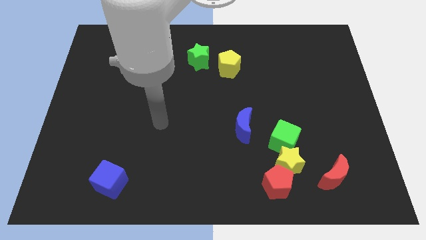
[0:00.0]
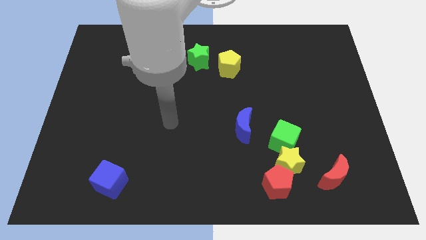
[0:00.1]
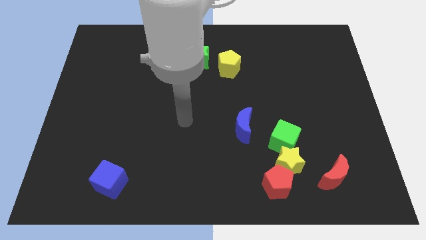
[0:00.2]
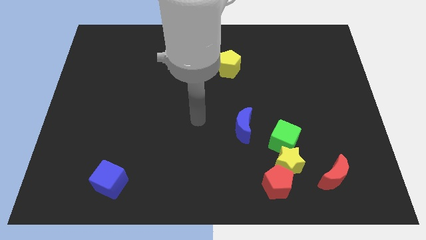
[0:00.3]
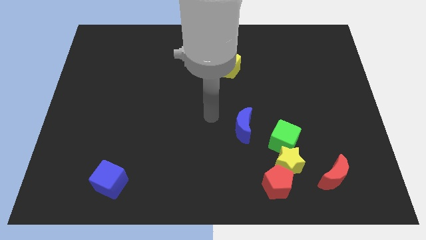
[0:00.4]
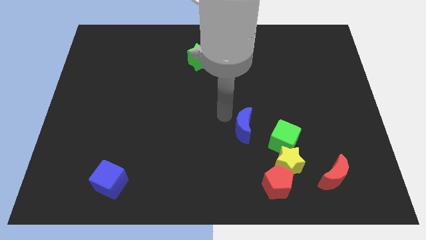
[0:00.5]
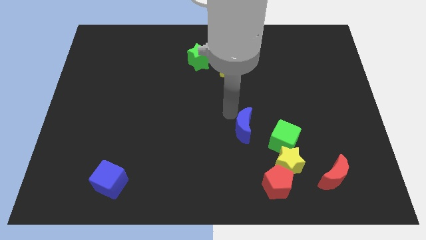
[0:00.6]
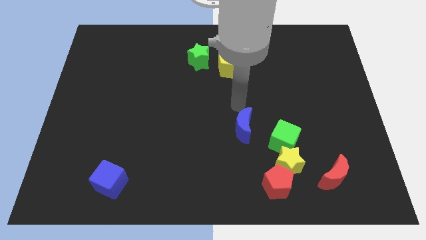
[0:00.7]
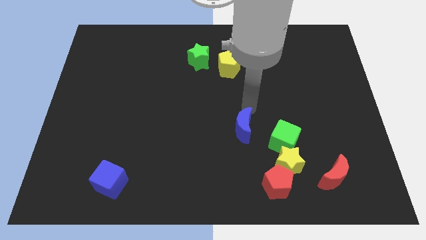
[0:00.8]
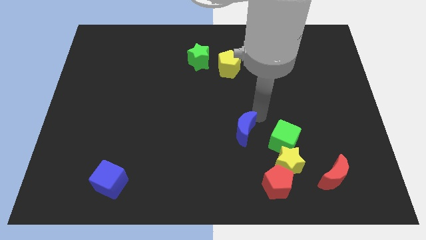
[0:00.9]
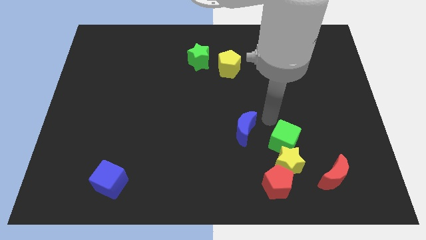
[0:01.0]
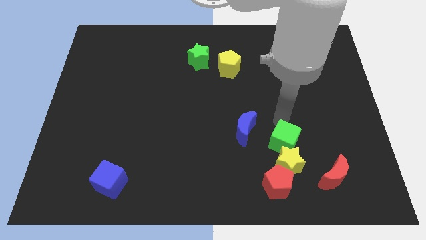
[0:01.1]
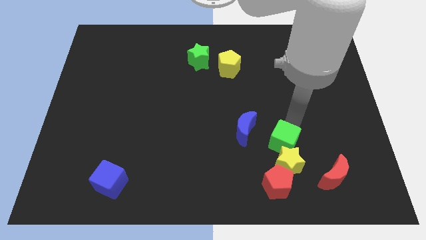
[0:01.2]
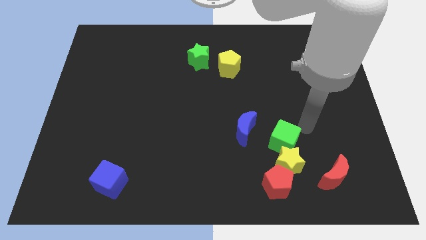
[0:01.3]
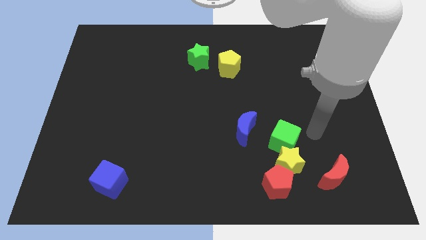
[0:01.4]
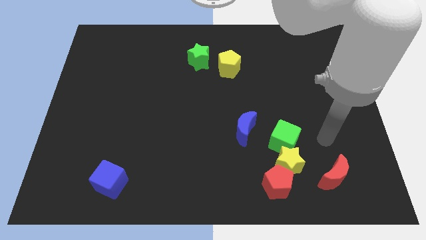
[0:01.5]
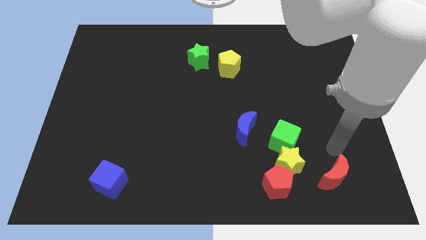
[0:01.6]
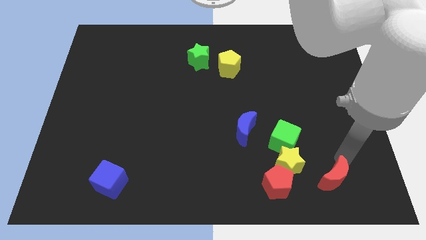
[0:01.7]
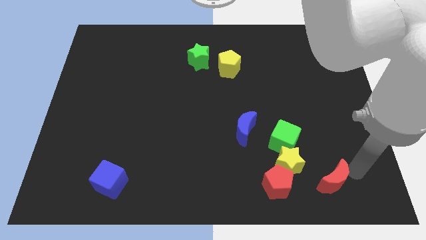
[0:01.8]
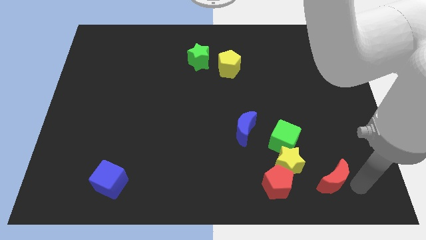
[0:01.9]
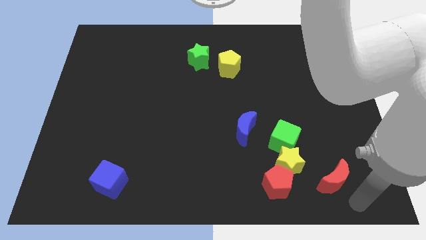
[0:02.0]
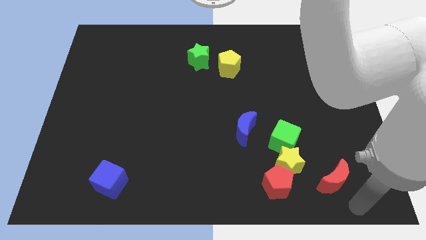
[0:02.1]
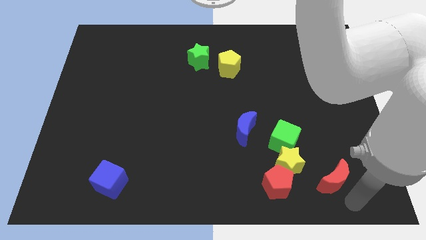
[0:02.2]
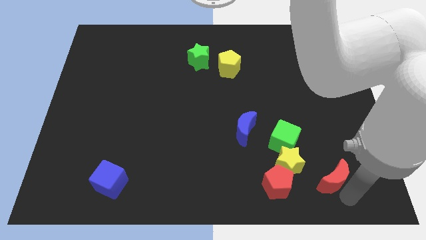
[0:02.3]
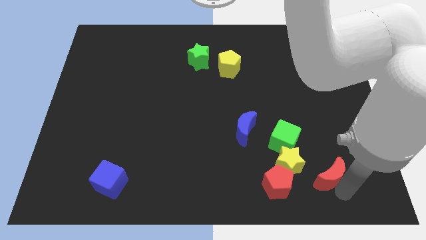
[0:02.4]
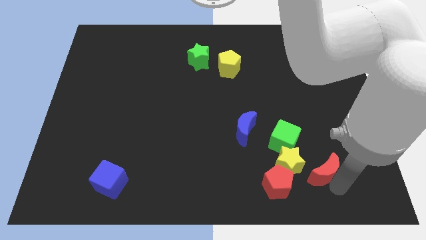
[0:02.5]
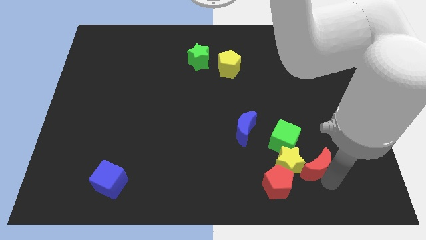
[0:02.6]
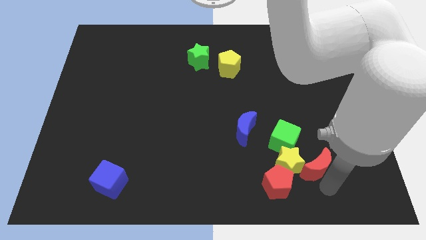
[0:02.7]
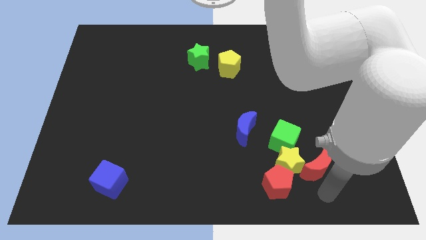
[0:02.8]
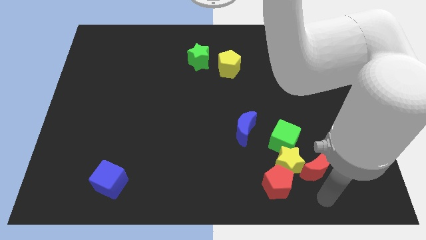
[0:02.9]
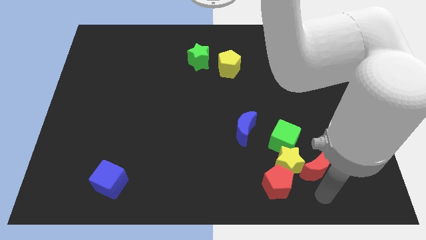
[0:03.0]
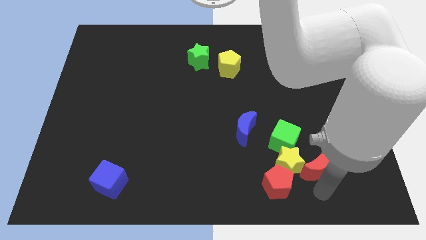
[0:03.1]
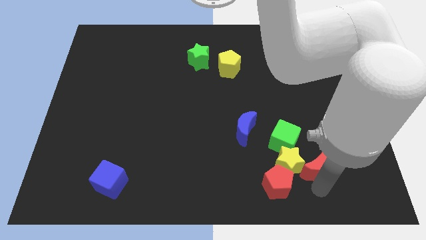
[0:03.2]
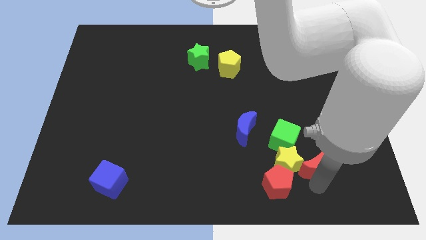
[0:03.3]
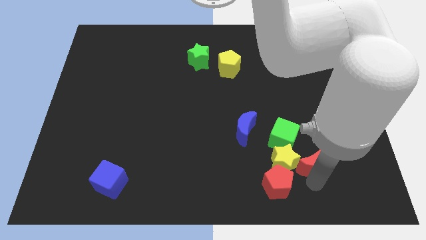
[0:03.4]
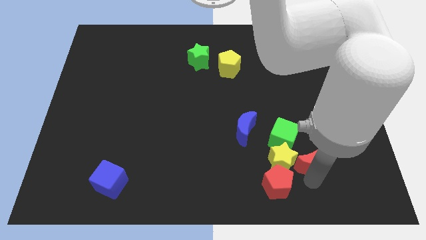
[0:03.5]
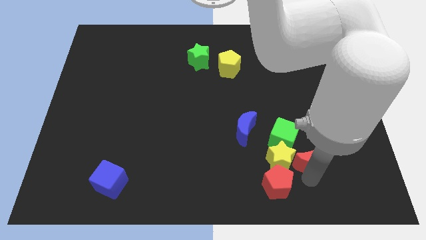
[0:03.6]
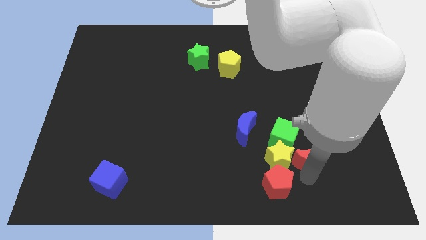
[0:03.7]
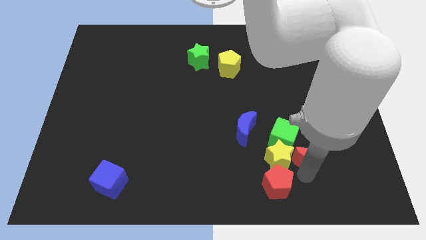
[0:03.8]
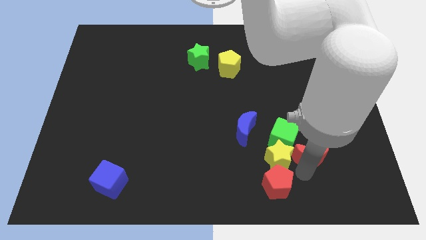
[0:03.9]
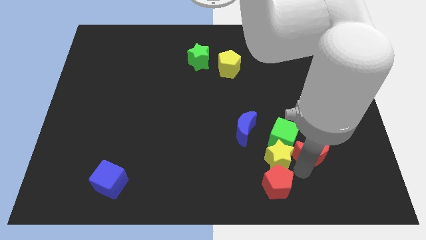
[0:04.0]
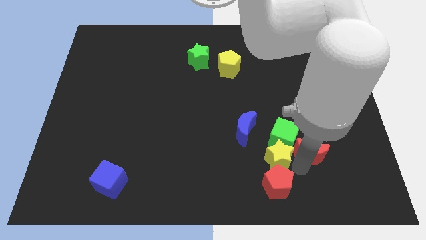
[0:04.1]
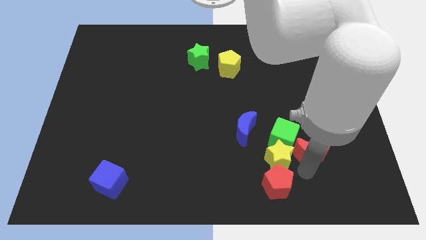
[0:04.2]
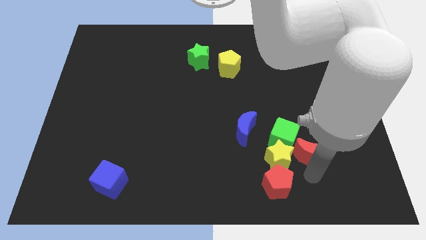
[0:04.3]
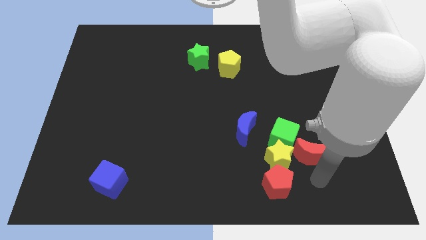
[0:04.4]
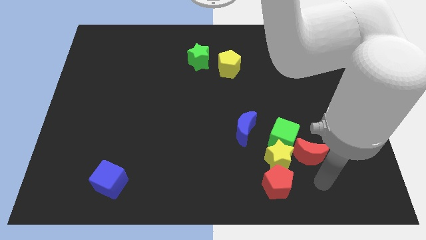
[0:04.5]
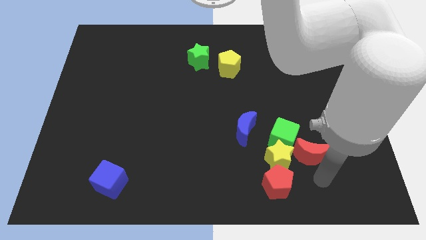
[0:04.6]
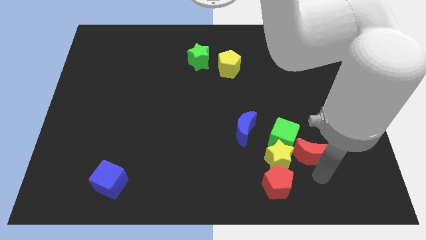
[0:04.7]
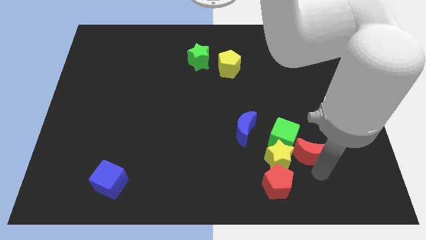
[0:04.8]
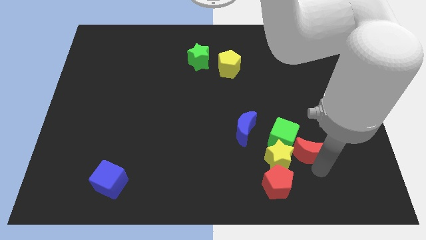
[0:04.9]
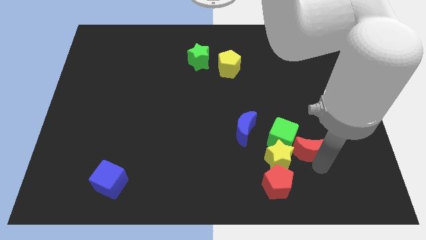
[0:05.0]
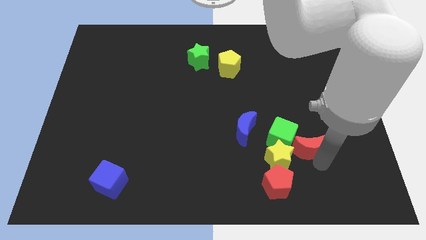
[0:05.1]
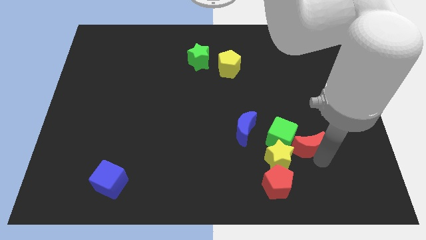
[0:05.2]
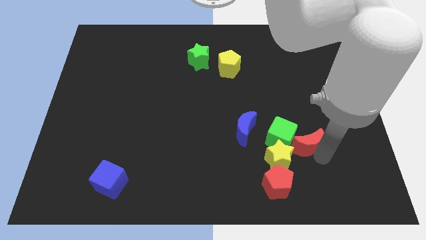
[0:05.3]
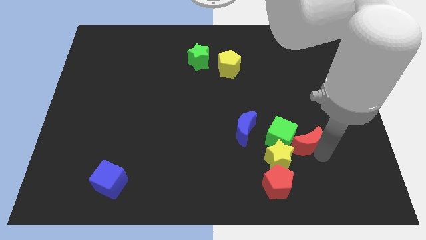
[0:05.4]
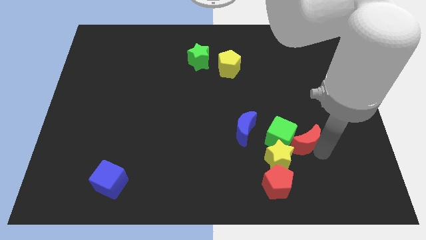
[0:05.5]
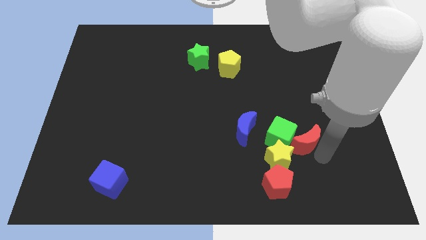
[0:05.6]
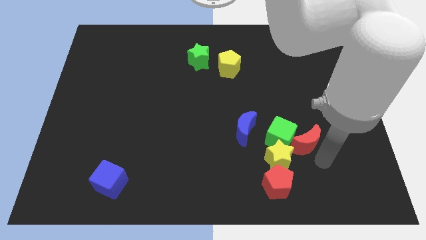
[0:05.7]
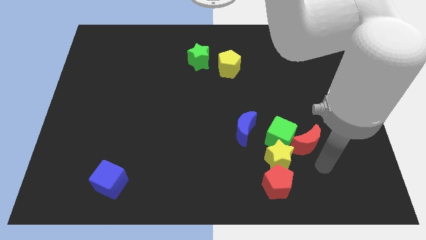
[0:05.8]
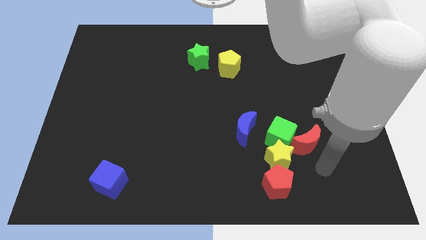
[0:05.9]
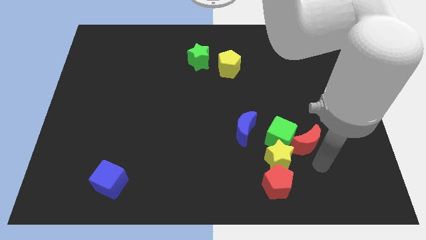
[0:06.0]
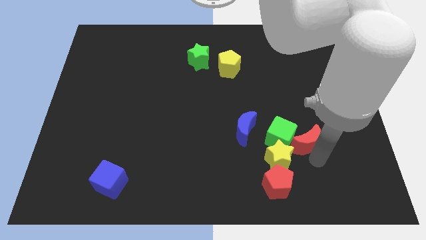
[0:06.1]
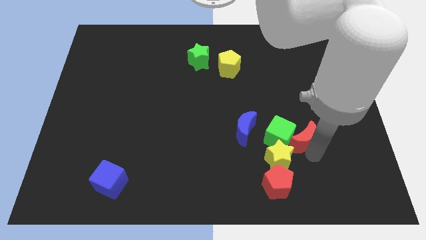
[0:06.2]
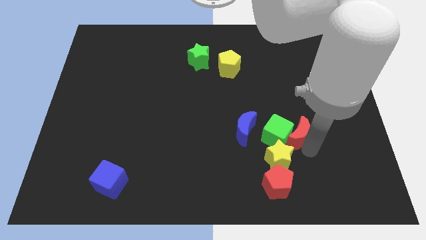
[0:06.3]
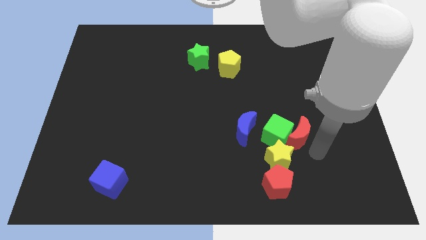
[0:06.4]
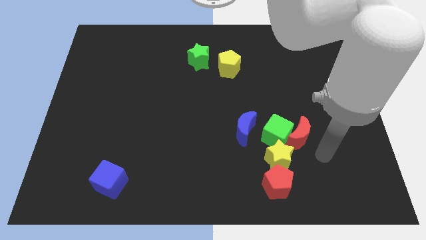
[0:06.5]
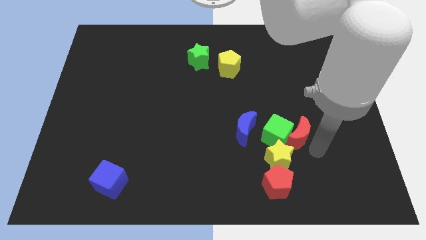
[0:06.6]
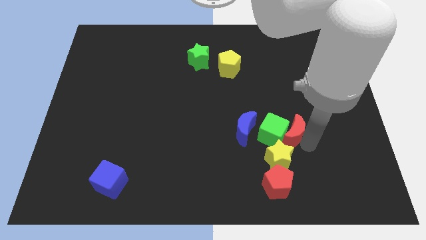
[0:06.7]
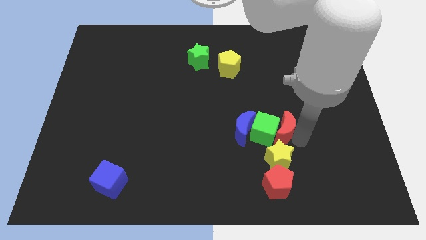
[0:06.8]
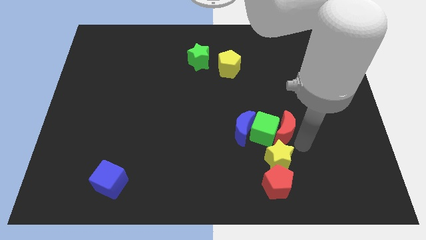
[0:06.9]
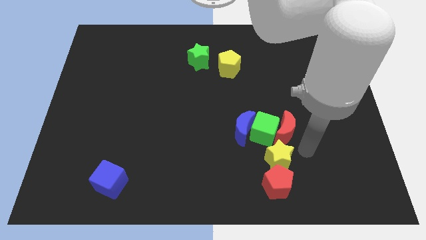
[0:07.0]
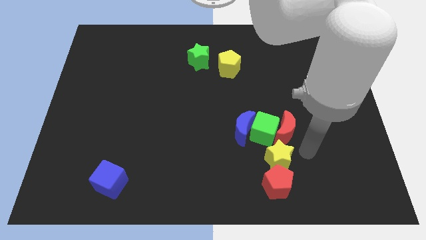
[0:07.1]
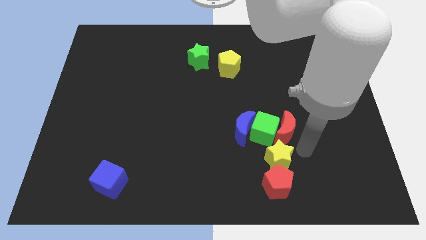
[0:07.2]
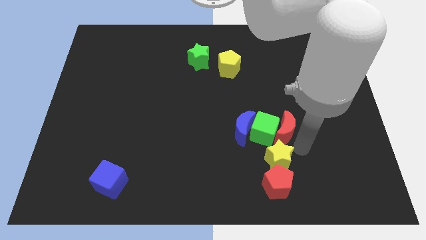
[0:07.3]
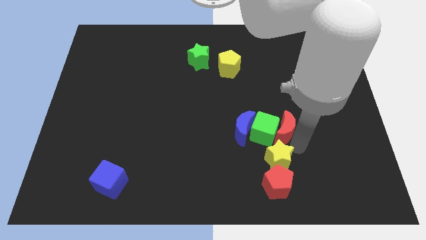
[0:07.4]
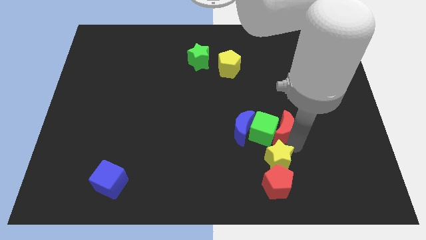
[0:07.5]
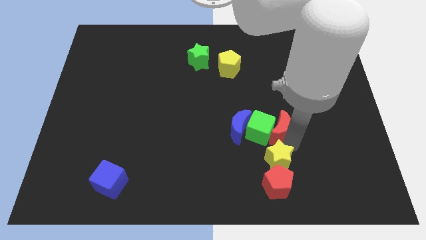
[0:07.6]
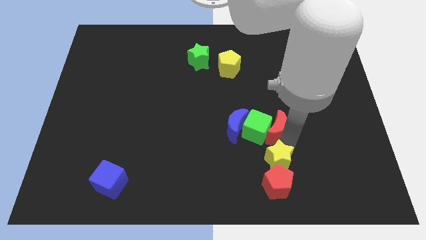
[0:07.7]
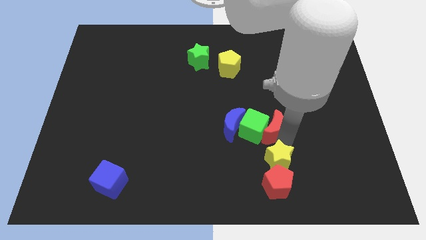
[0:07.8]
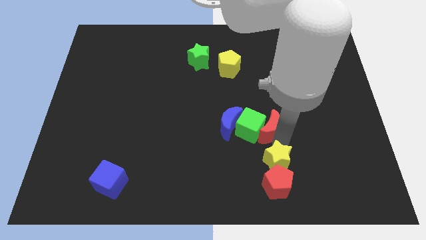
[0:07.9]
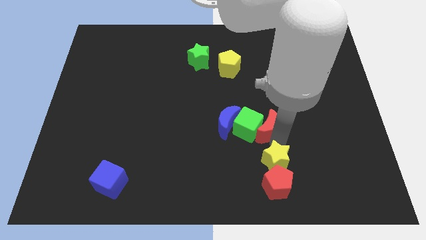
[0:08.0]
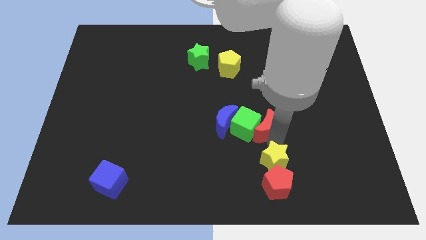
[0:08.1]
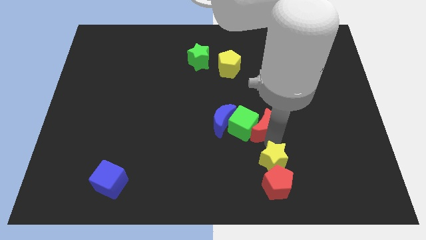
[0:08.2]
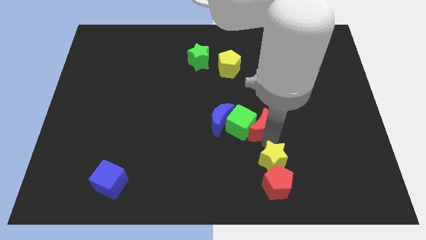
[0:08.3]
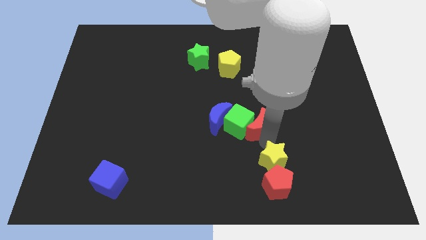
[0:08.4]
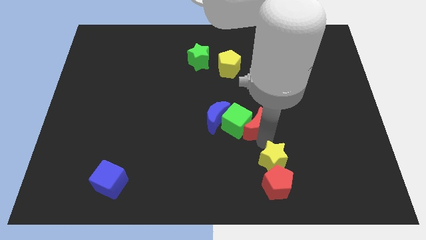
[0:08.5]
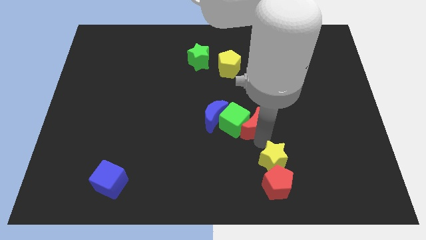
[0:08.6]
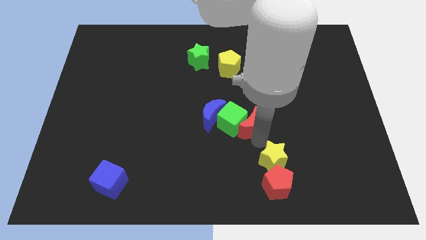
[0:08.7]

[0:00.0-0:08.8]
move the red moon upwards and then left
